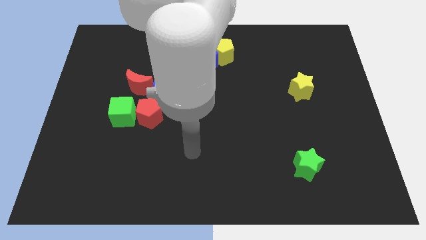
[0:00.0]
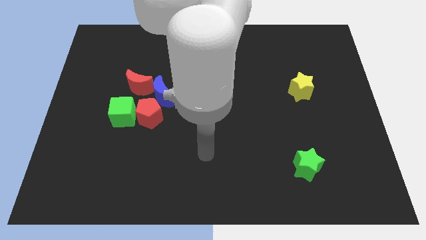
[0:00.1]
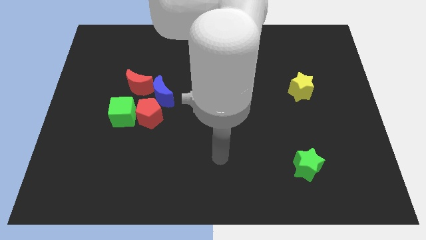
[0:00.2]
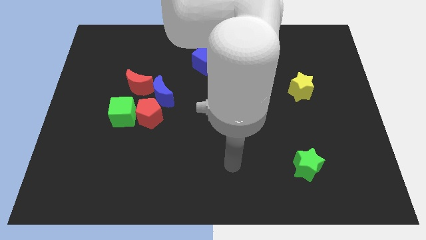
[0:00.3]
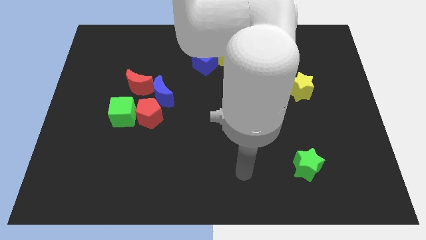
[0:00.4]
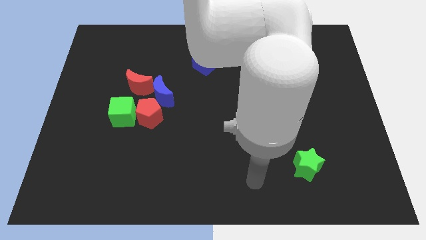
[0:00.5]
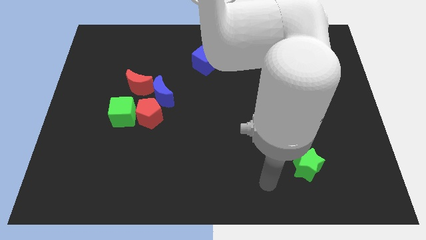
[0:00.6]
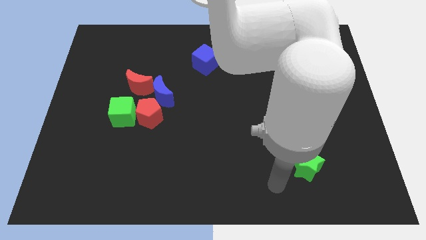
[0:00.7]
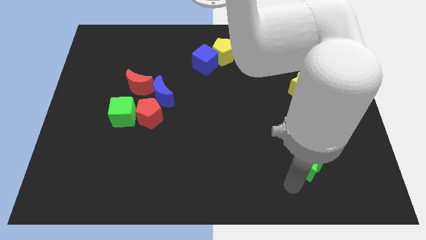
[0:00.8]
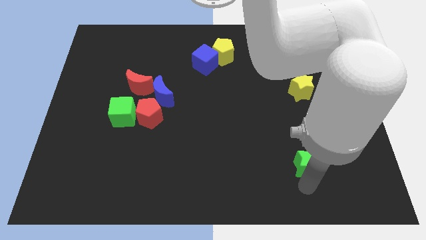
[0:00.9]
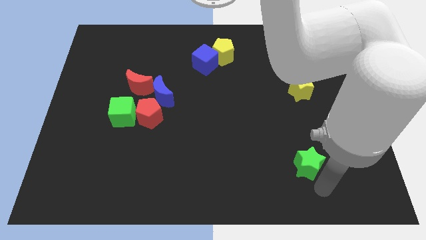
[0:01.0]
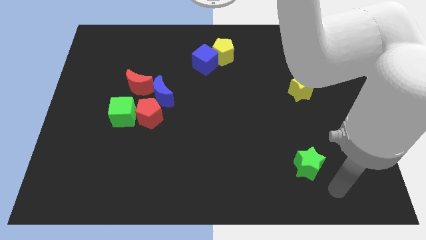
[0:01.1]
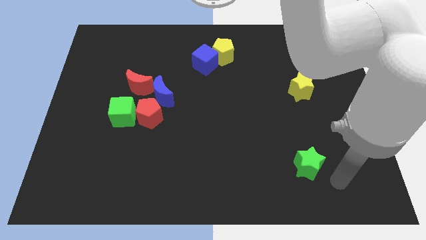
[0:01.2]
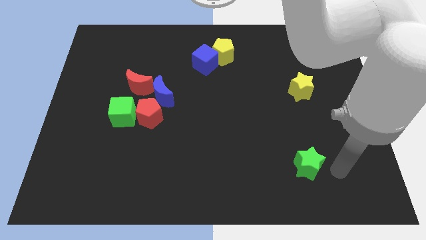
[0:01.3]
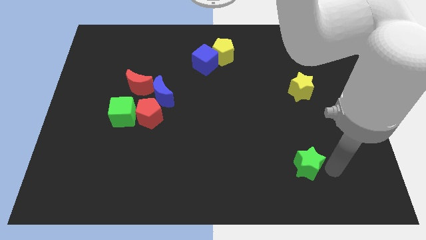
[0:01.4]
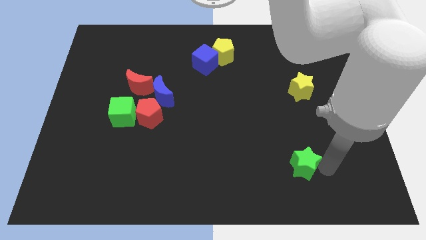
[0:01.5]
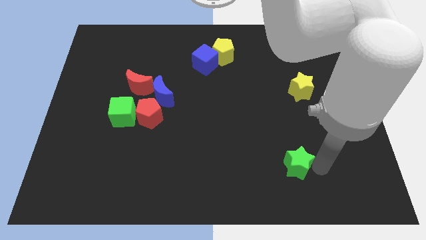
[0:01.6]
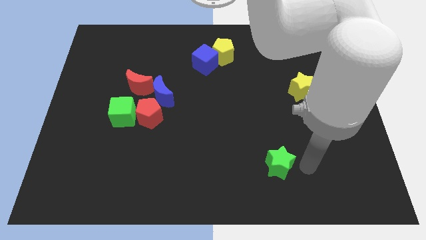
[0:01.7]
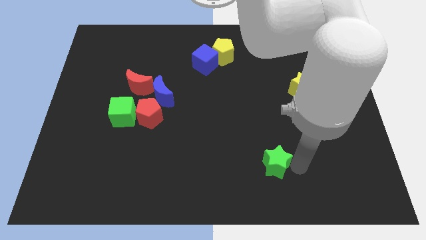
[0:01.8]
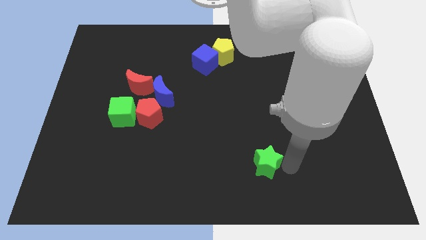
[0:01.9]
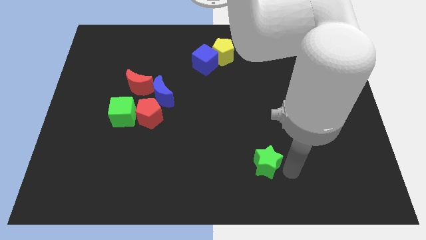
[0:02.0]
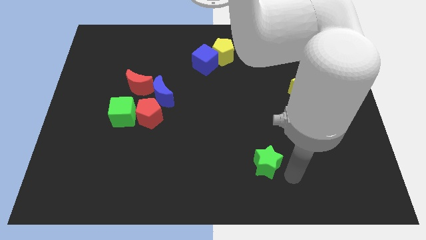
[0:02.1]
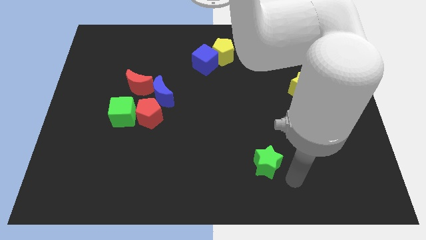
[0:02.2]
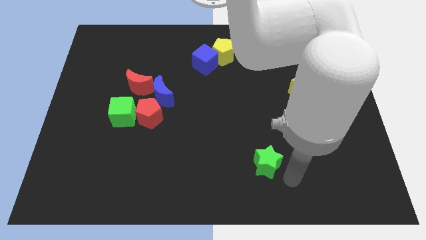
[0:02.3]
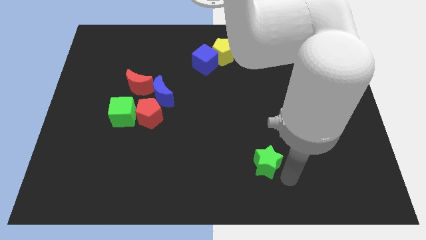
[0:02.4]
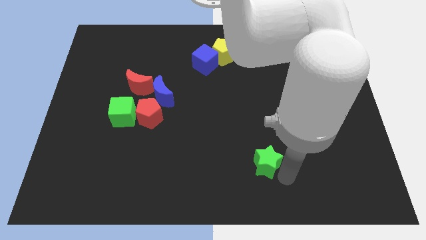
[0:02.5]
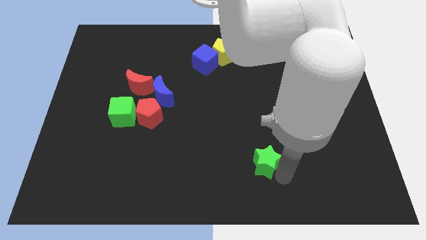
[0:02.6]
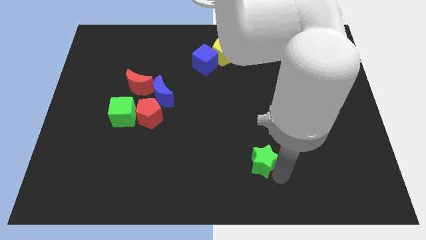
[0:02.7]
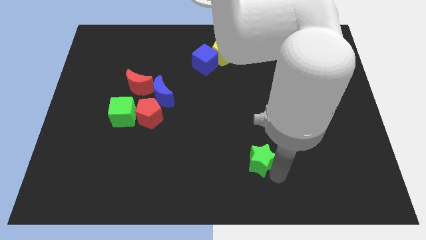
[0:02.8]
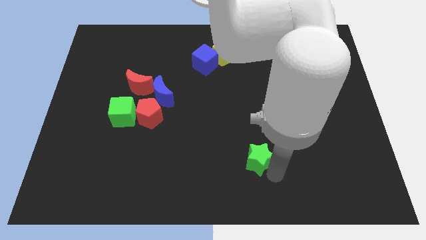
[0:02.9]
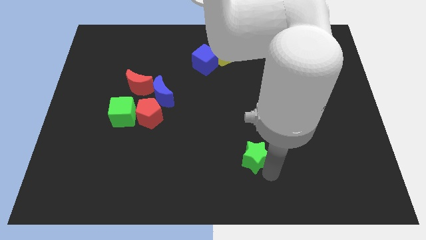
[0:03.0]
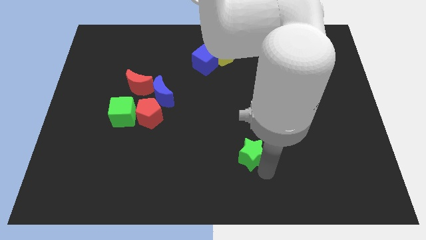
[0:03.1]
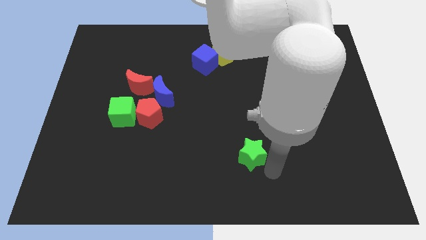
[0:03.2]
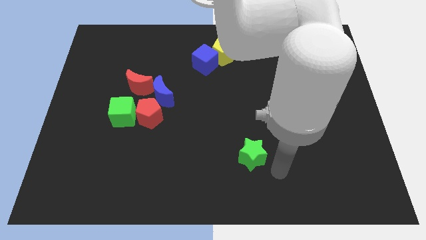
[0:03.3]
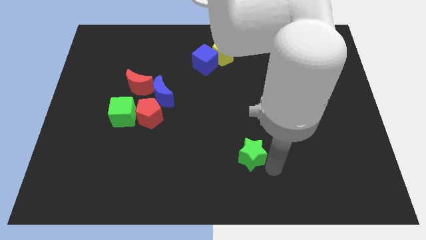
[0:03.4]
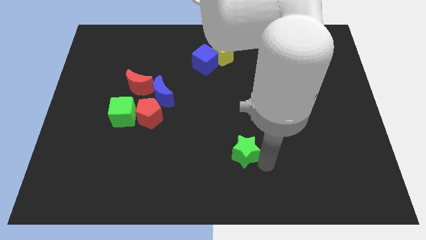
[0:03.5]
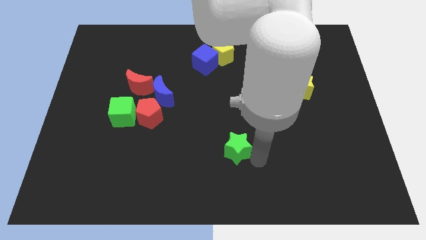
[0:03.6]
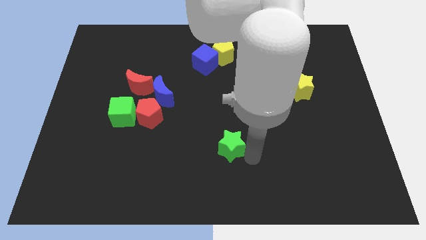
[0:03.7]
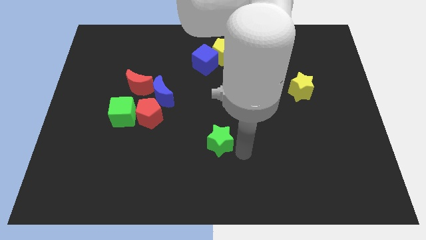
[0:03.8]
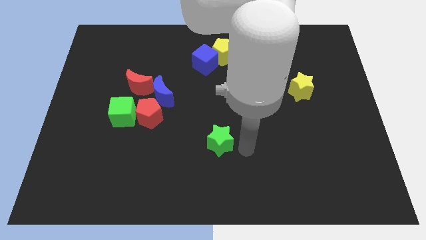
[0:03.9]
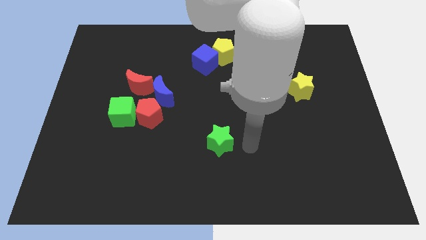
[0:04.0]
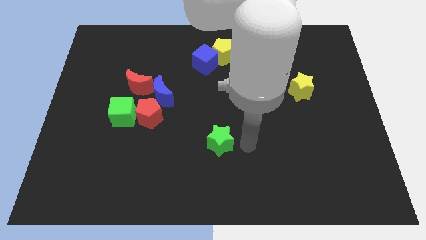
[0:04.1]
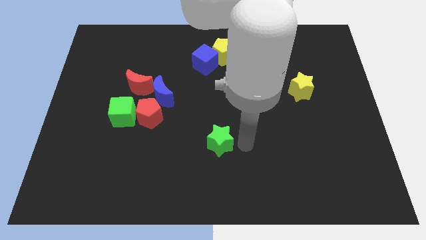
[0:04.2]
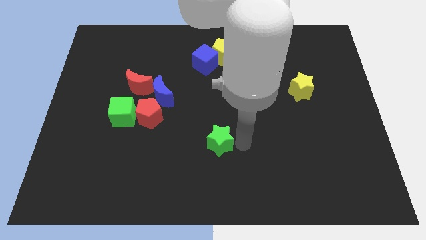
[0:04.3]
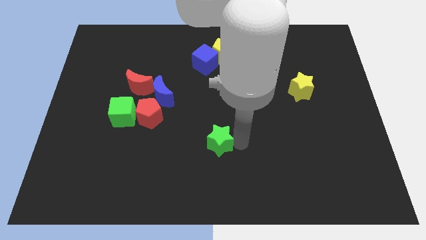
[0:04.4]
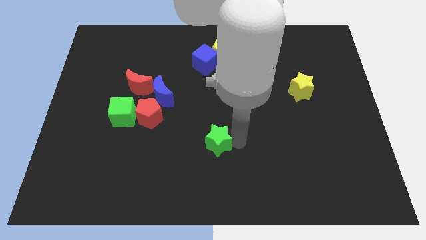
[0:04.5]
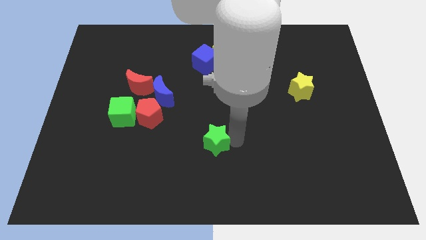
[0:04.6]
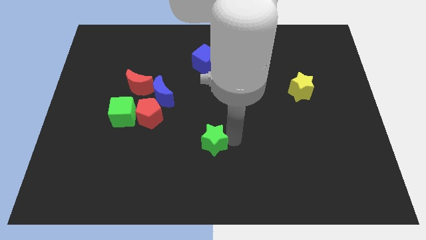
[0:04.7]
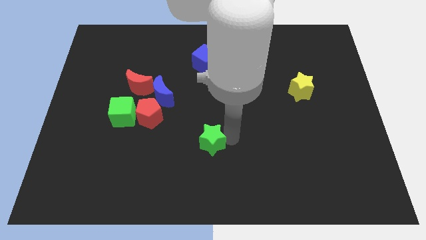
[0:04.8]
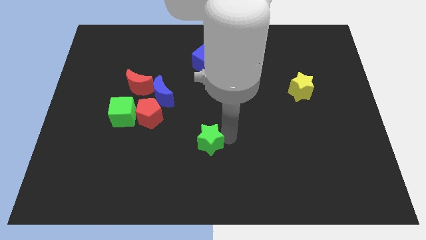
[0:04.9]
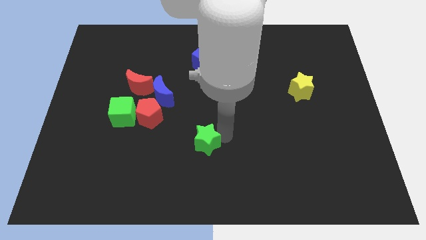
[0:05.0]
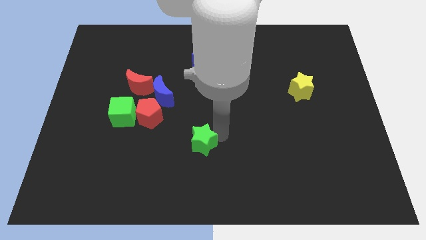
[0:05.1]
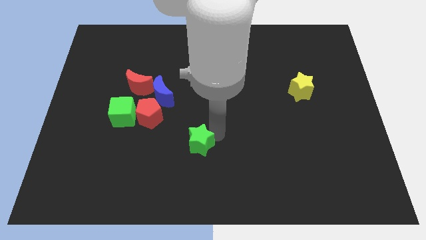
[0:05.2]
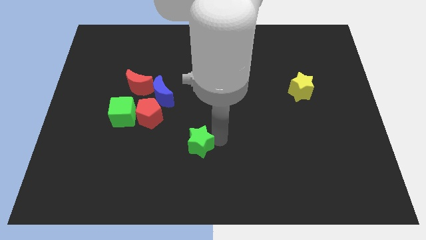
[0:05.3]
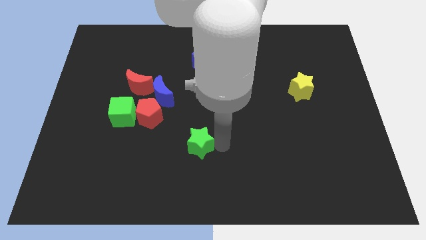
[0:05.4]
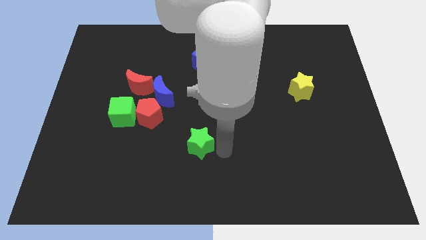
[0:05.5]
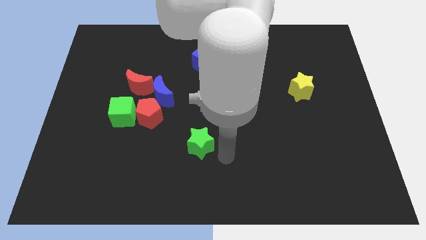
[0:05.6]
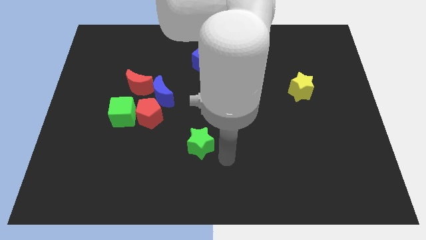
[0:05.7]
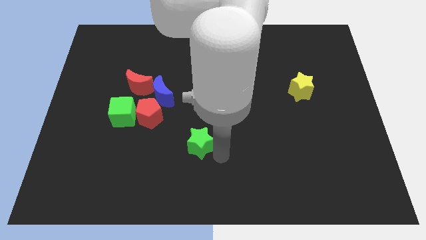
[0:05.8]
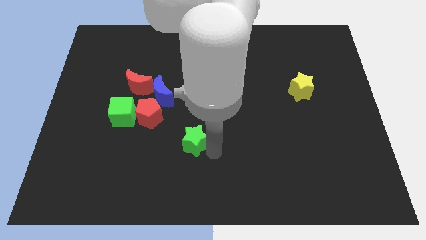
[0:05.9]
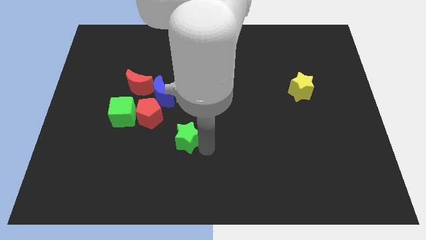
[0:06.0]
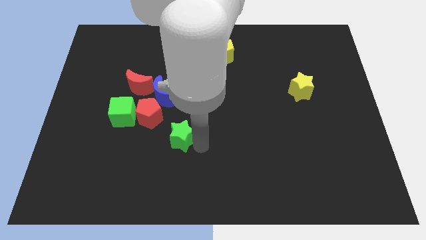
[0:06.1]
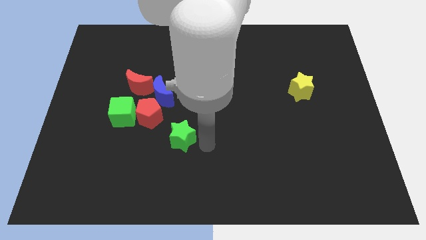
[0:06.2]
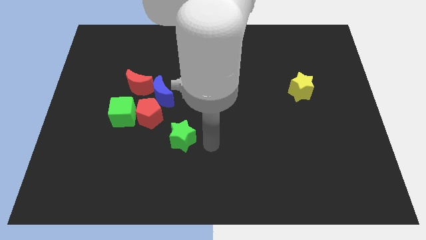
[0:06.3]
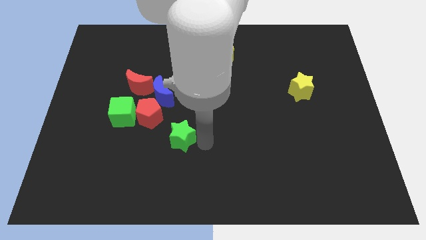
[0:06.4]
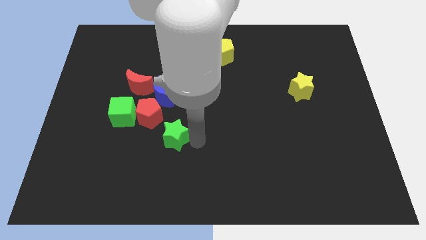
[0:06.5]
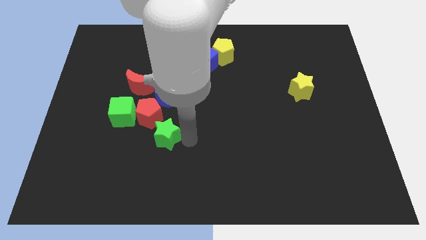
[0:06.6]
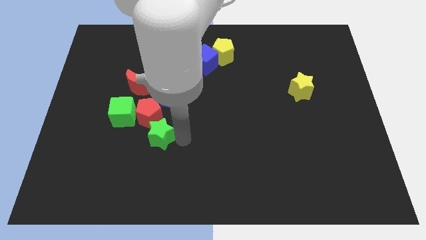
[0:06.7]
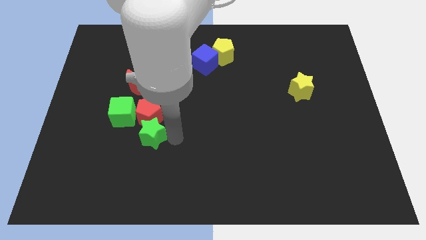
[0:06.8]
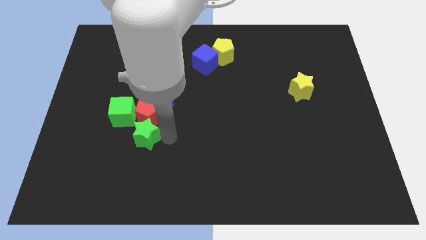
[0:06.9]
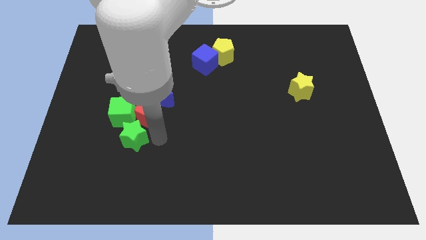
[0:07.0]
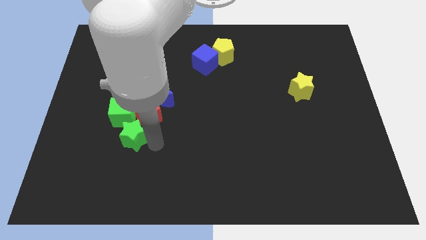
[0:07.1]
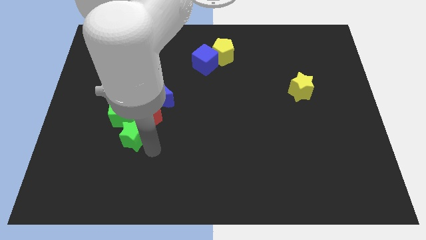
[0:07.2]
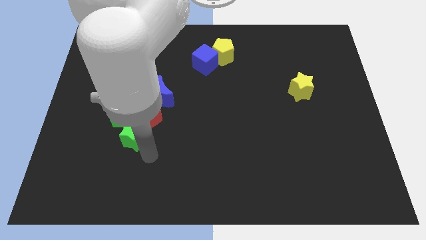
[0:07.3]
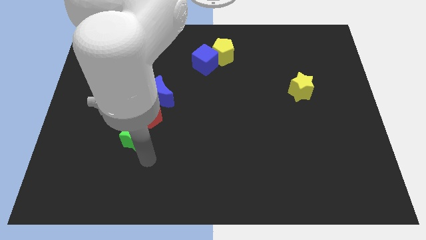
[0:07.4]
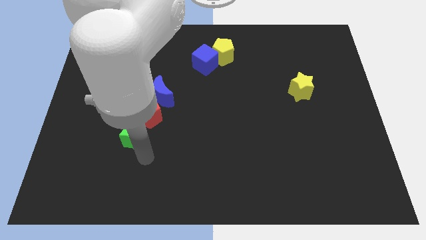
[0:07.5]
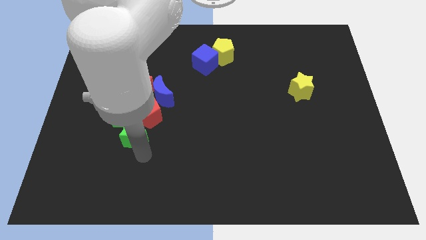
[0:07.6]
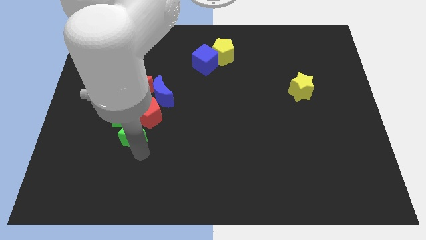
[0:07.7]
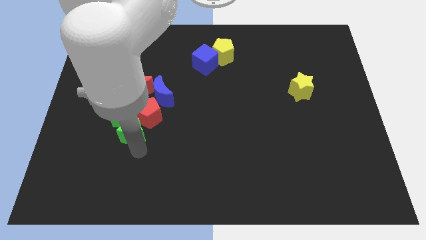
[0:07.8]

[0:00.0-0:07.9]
put the green star next to the green cube
